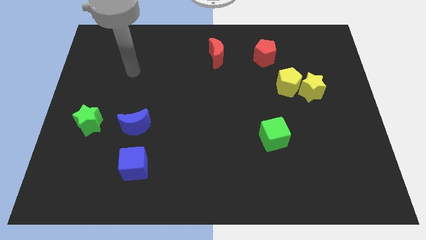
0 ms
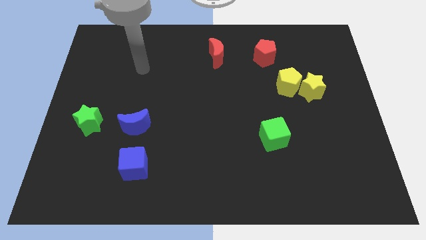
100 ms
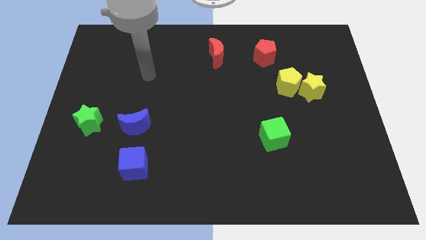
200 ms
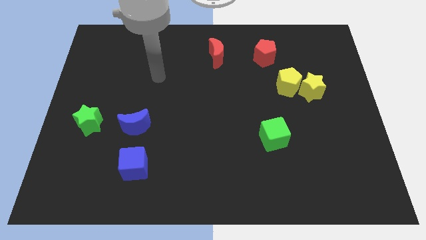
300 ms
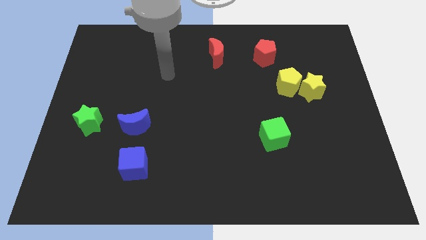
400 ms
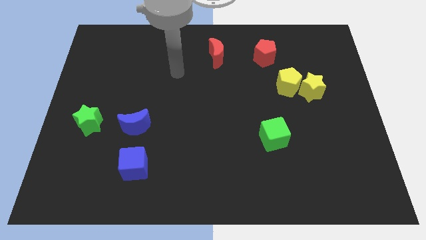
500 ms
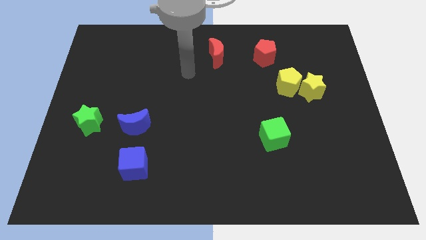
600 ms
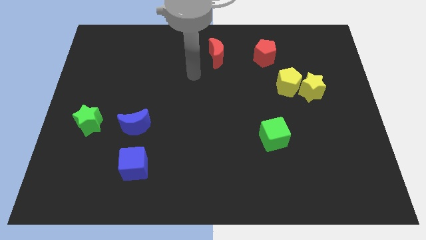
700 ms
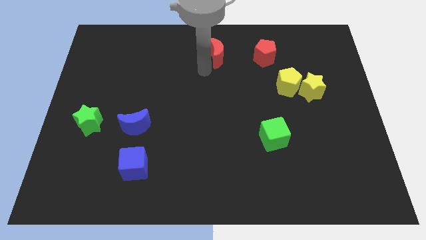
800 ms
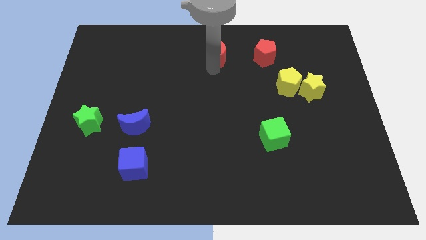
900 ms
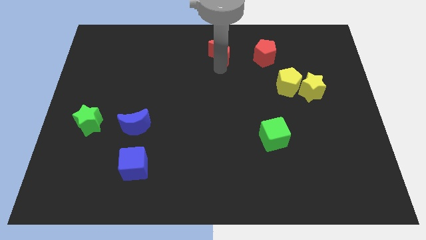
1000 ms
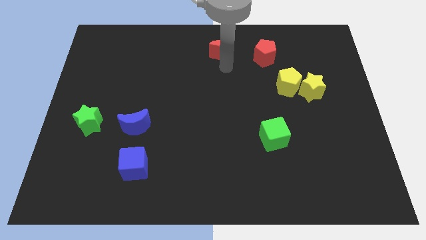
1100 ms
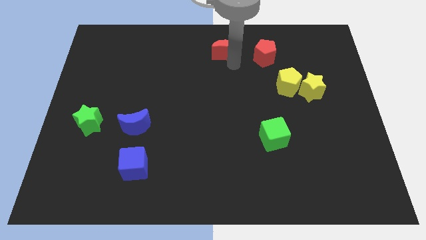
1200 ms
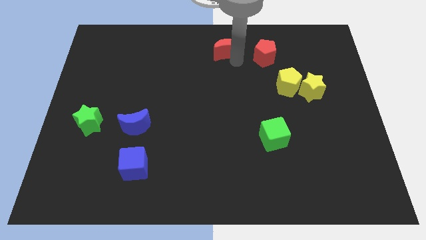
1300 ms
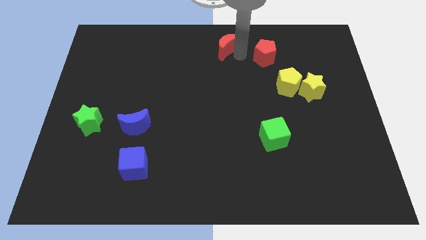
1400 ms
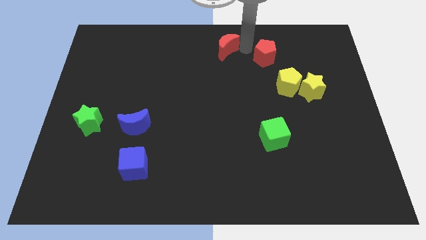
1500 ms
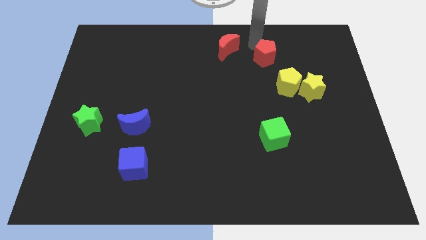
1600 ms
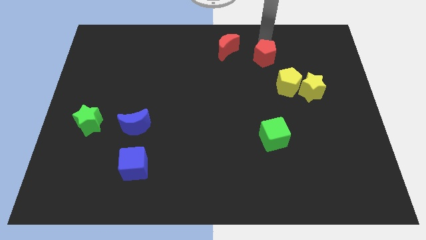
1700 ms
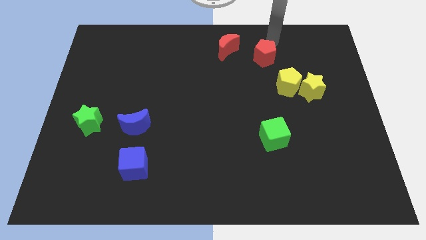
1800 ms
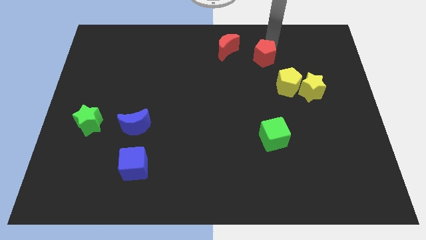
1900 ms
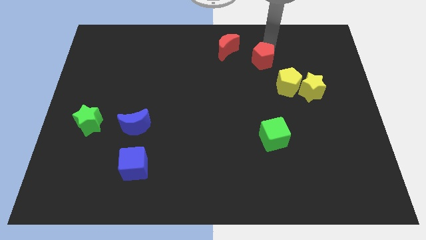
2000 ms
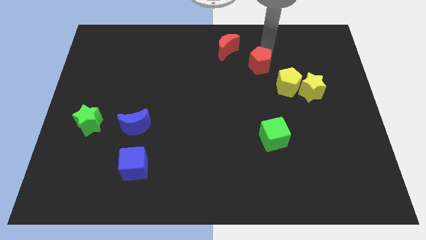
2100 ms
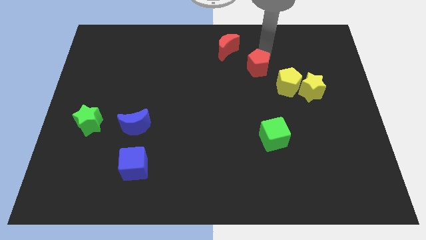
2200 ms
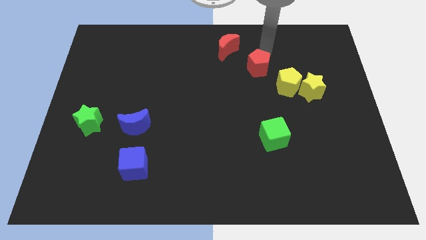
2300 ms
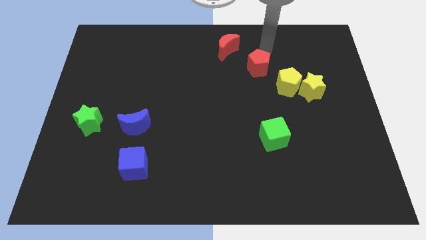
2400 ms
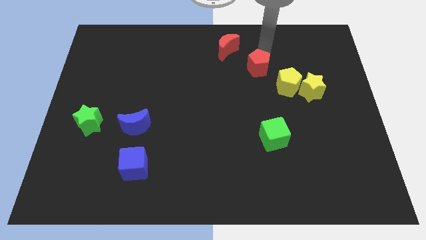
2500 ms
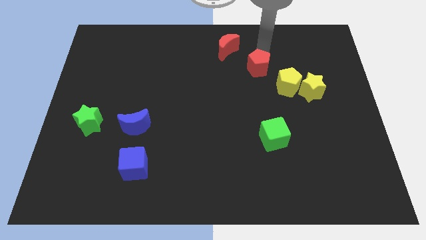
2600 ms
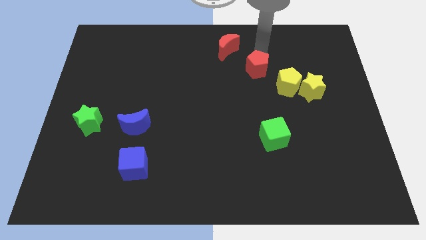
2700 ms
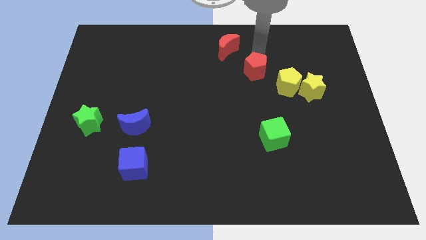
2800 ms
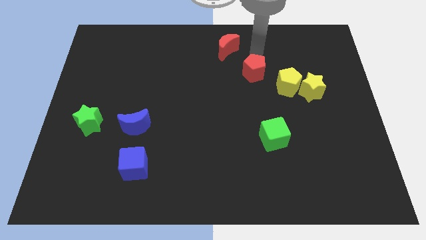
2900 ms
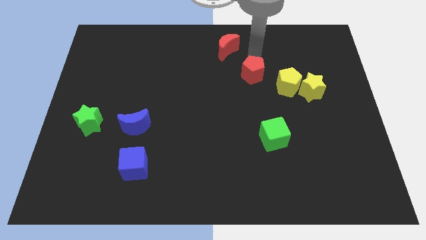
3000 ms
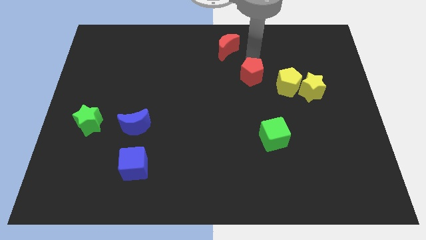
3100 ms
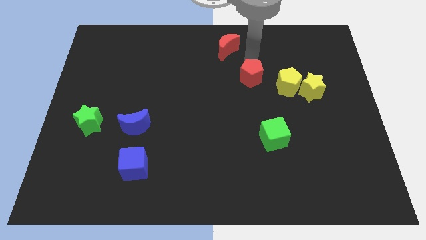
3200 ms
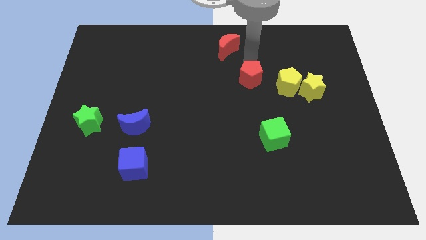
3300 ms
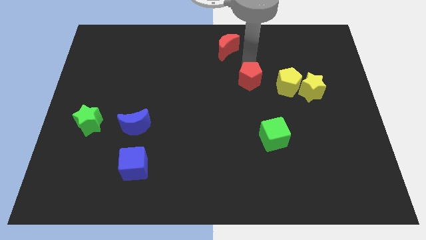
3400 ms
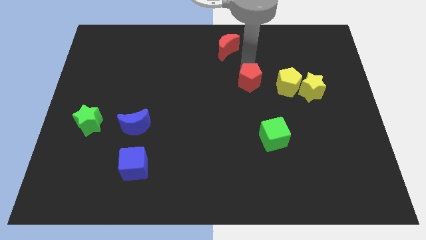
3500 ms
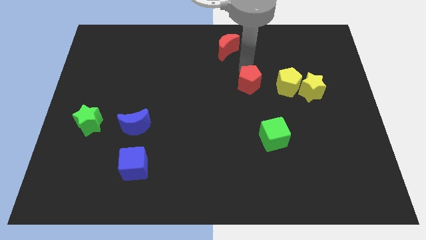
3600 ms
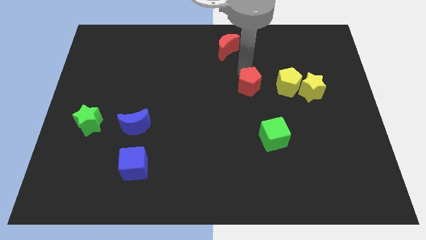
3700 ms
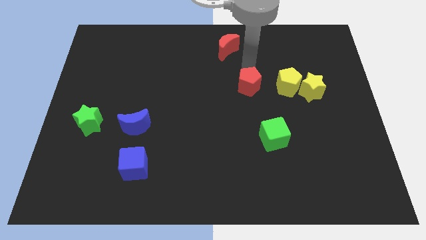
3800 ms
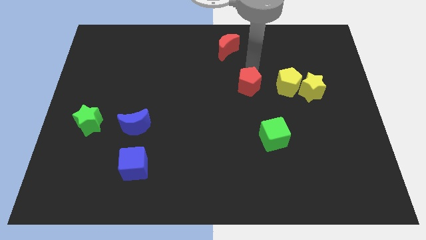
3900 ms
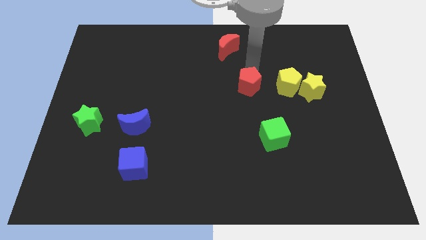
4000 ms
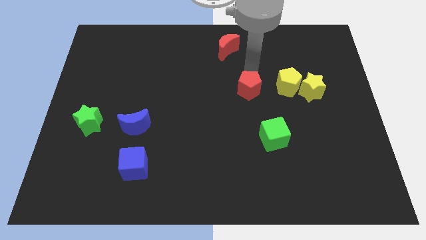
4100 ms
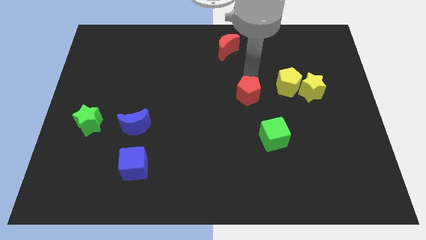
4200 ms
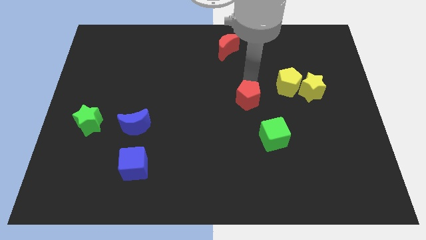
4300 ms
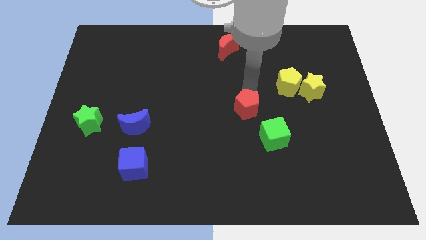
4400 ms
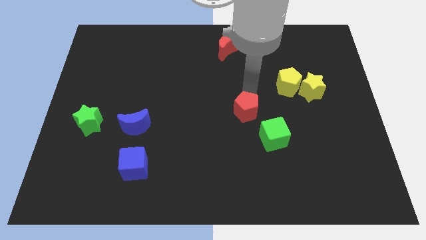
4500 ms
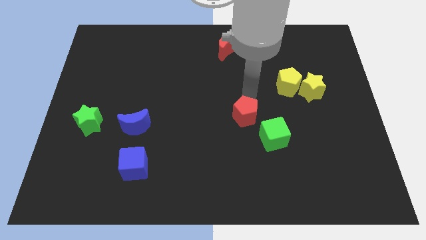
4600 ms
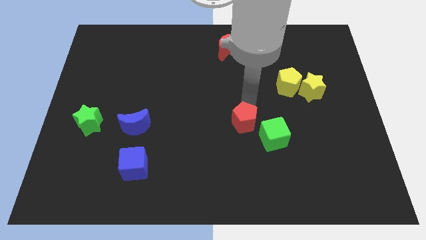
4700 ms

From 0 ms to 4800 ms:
slide the red pentagon to the left side of the green cube

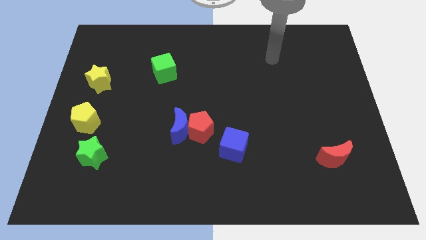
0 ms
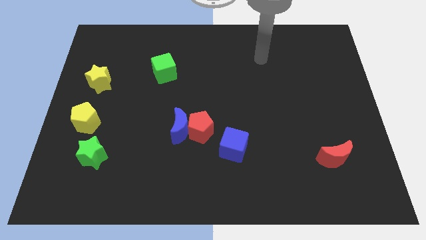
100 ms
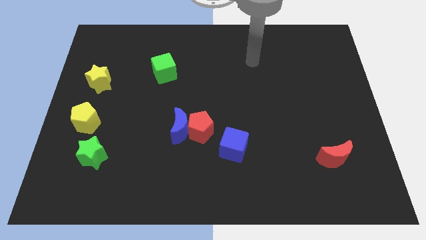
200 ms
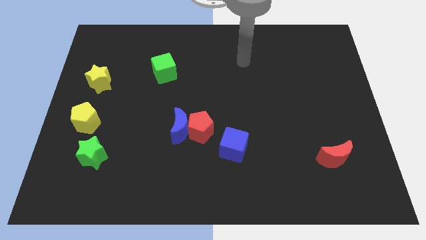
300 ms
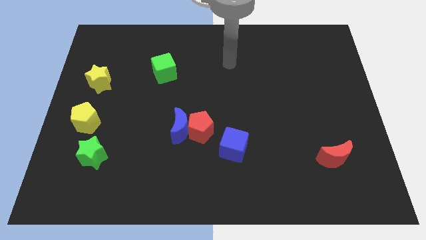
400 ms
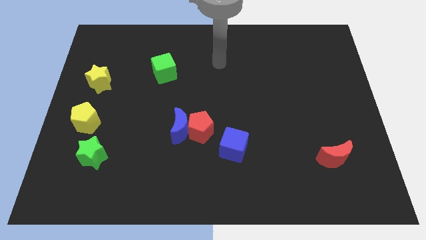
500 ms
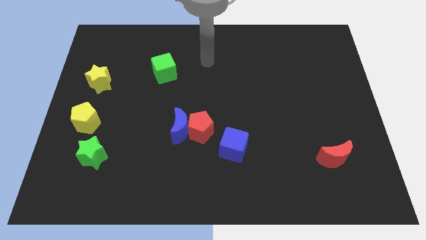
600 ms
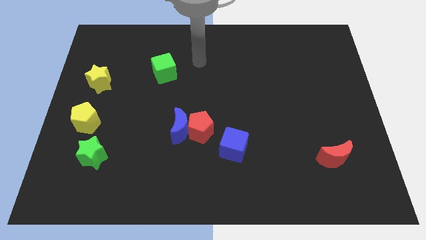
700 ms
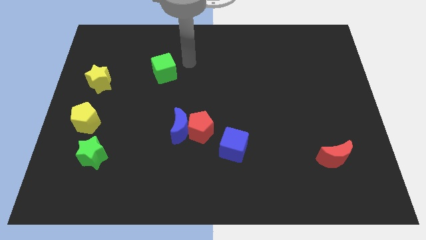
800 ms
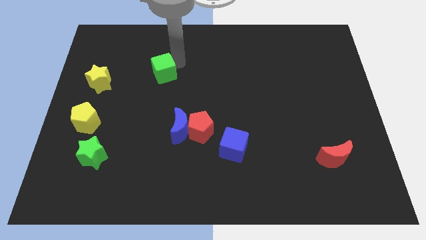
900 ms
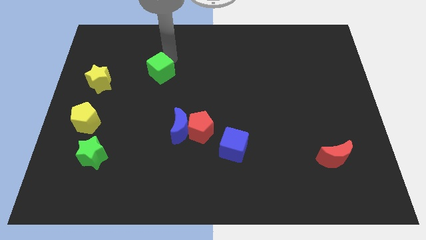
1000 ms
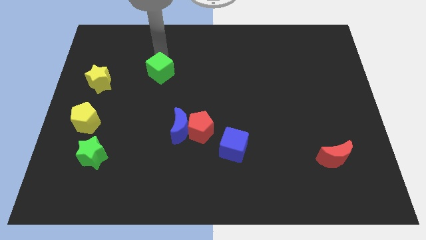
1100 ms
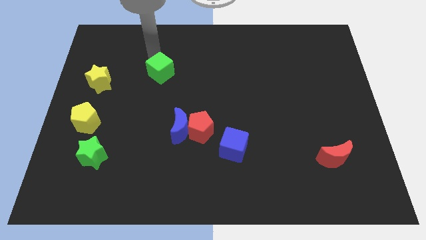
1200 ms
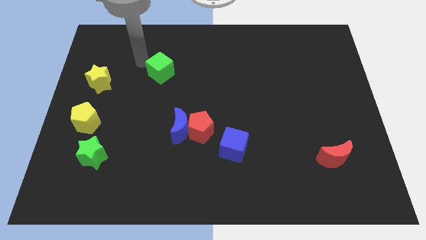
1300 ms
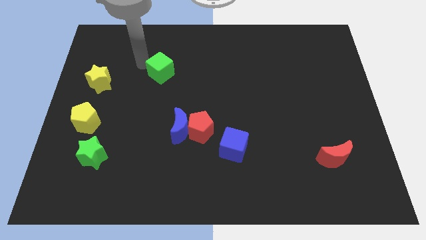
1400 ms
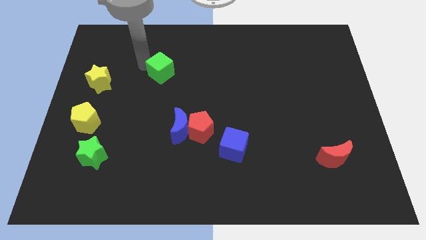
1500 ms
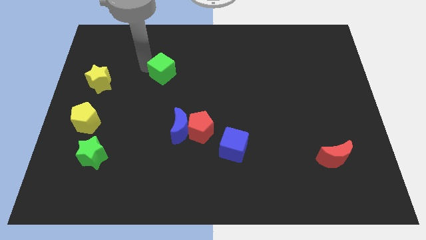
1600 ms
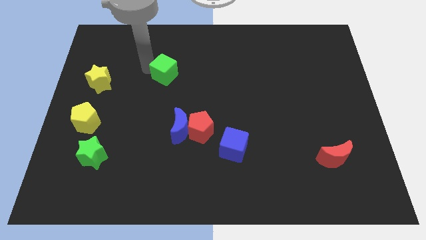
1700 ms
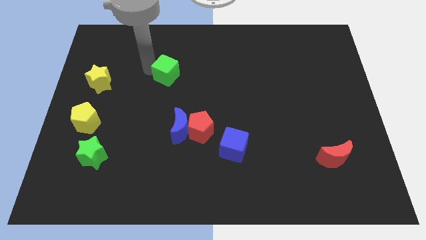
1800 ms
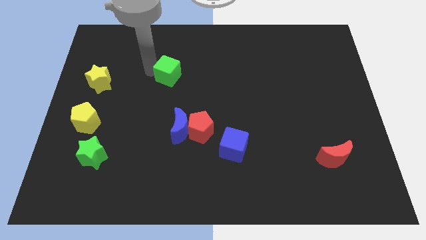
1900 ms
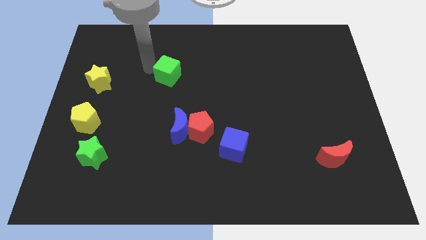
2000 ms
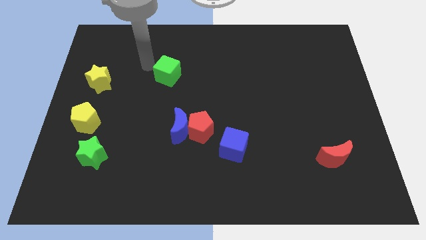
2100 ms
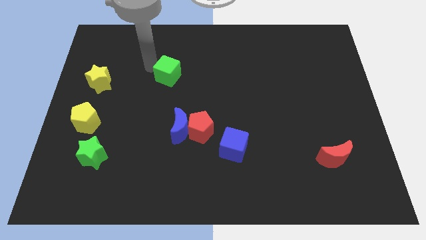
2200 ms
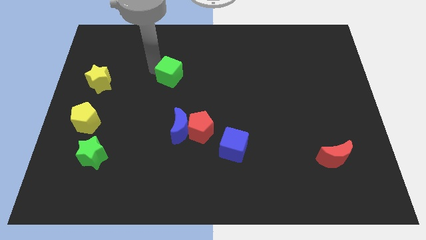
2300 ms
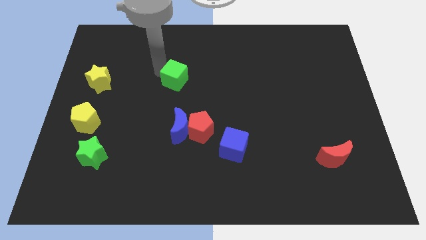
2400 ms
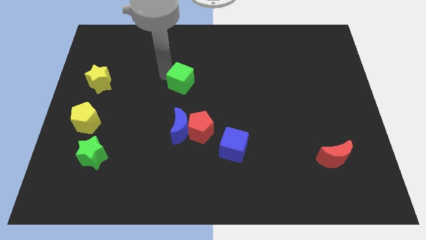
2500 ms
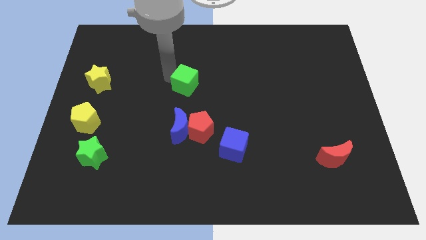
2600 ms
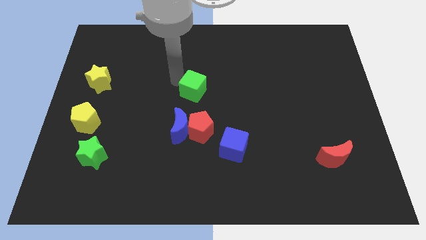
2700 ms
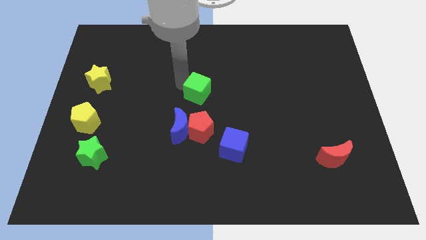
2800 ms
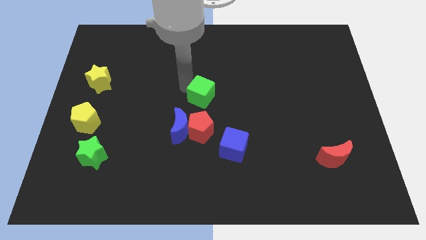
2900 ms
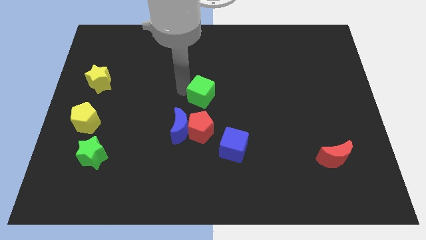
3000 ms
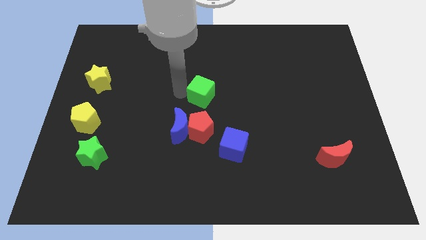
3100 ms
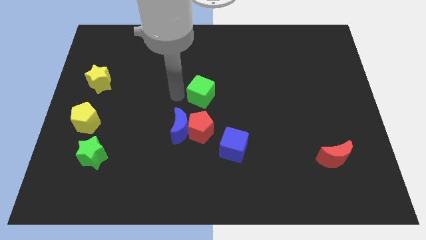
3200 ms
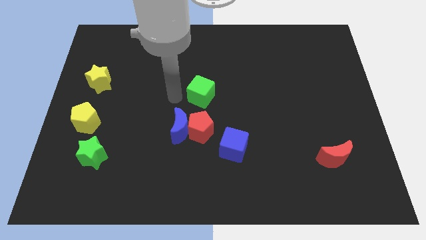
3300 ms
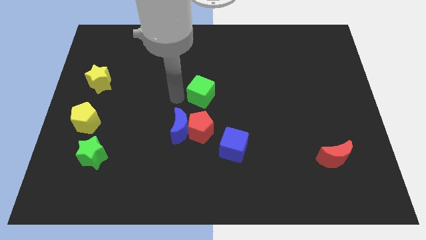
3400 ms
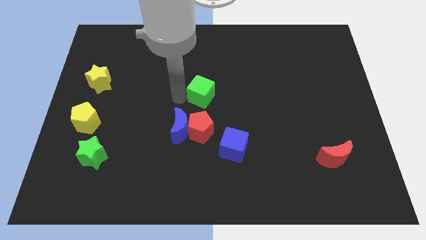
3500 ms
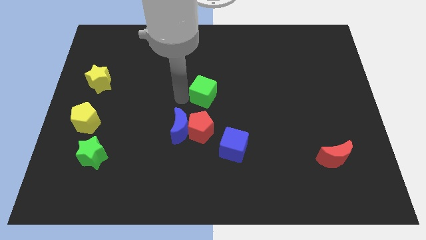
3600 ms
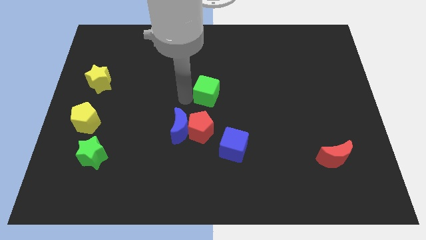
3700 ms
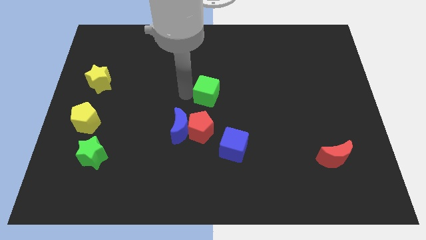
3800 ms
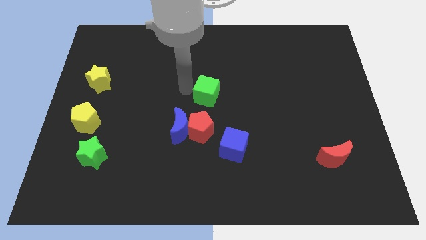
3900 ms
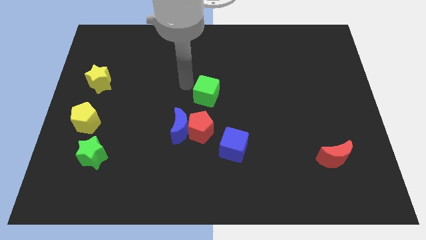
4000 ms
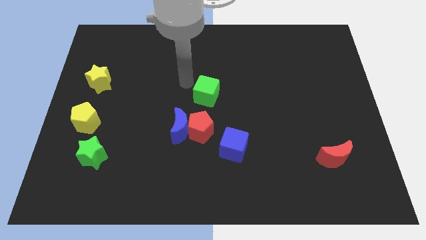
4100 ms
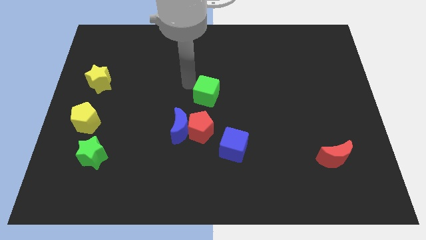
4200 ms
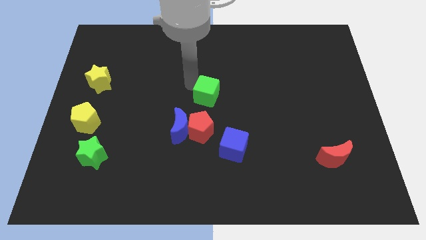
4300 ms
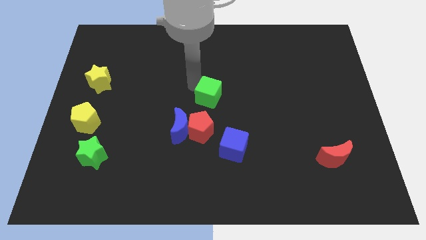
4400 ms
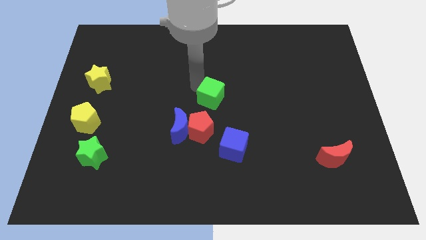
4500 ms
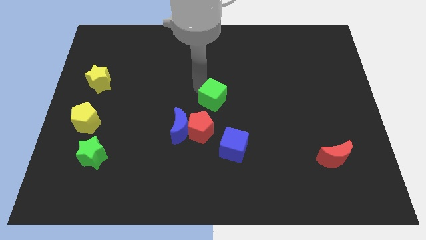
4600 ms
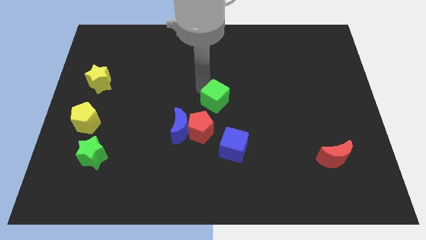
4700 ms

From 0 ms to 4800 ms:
put the green cube above the blue cube
